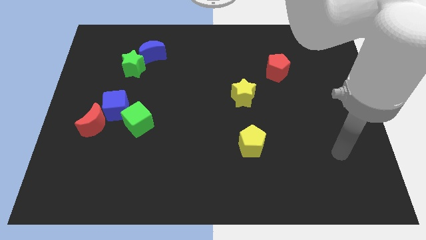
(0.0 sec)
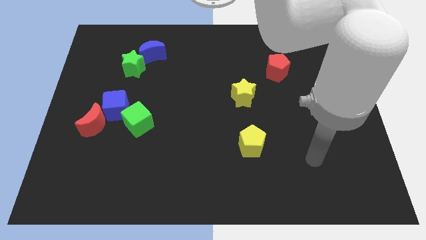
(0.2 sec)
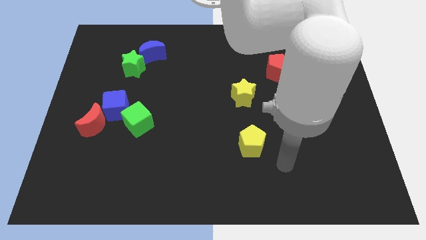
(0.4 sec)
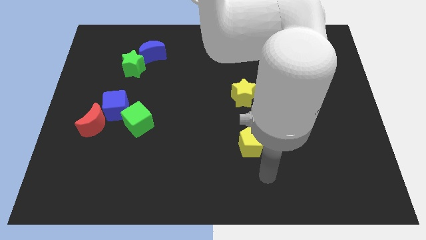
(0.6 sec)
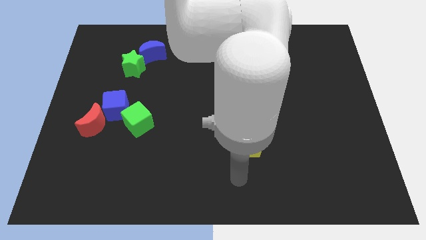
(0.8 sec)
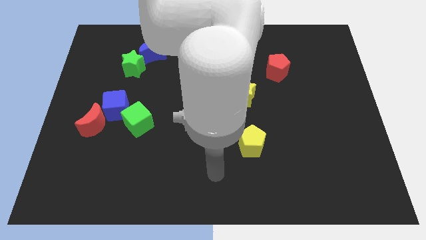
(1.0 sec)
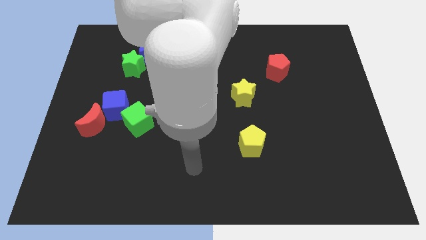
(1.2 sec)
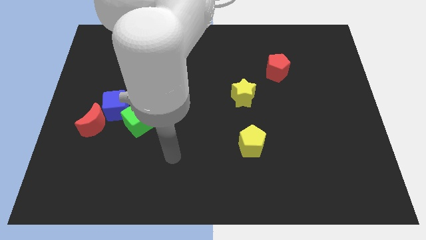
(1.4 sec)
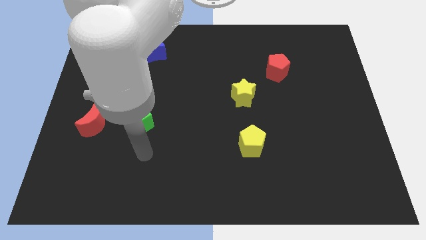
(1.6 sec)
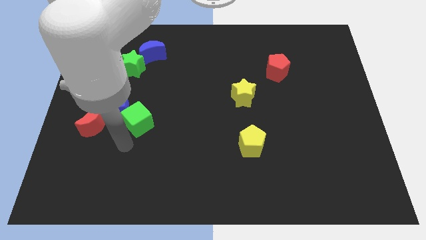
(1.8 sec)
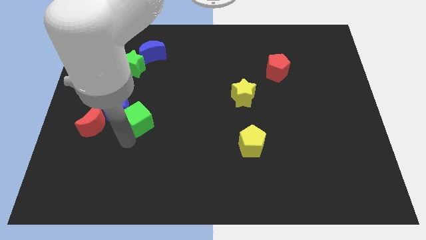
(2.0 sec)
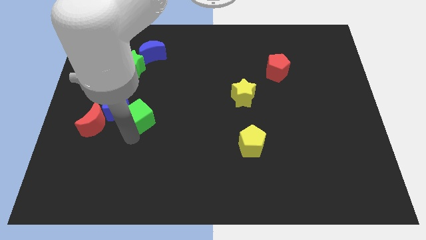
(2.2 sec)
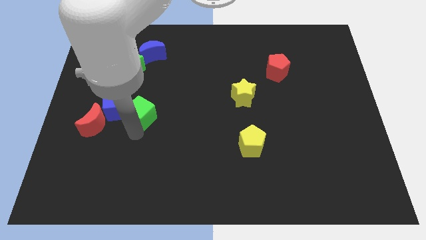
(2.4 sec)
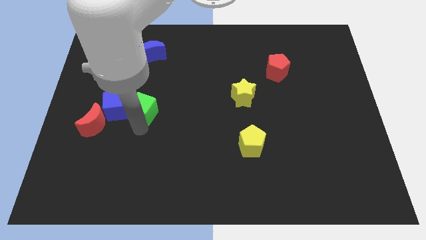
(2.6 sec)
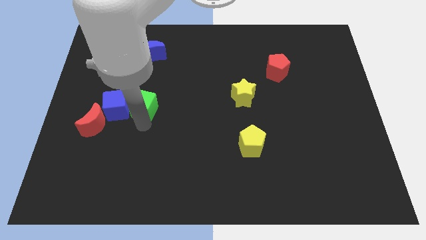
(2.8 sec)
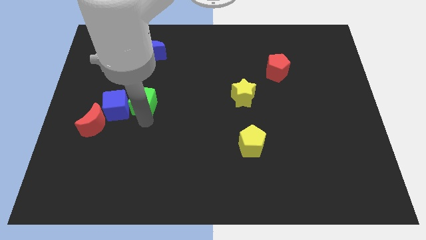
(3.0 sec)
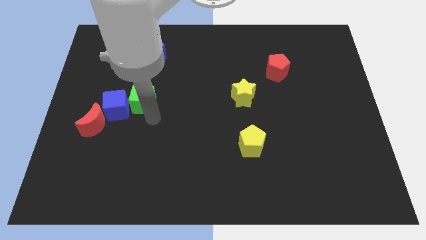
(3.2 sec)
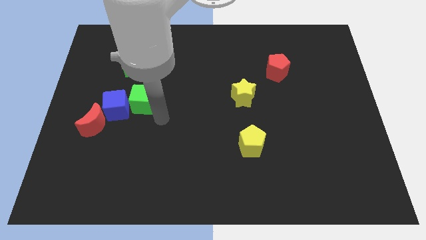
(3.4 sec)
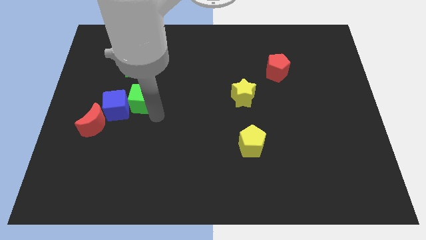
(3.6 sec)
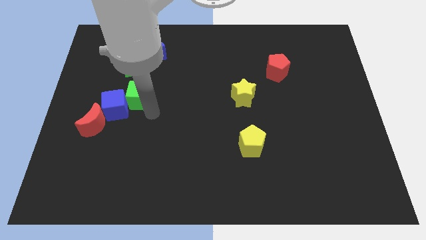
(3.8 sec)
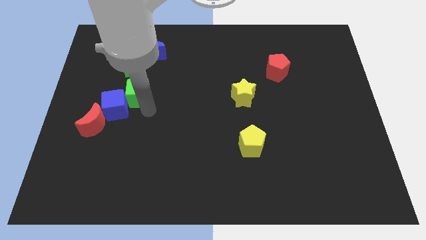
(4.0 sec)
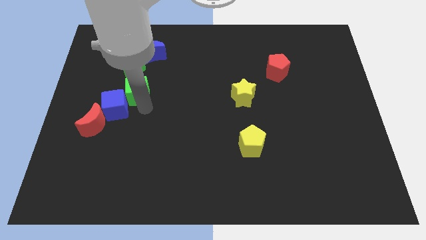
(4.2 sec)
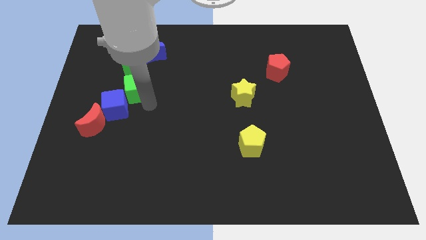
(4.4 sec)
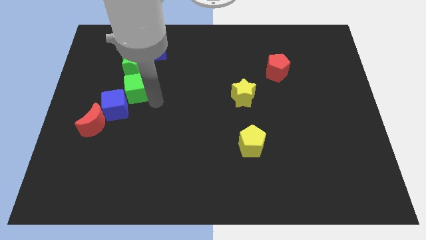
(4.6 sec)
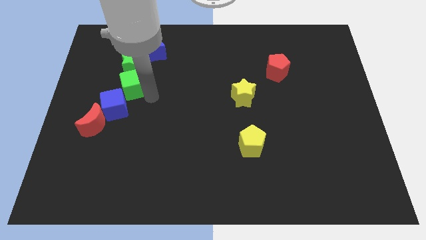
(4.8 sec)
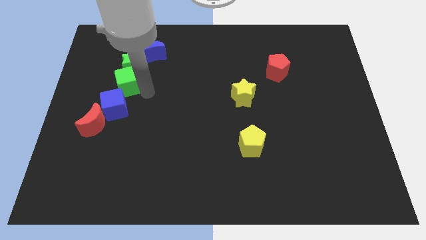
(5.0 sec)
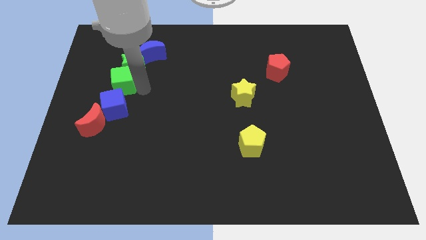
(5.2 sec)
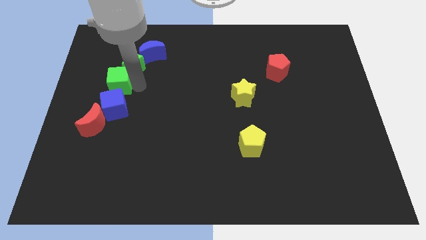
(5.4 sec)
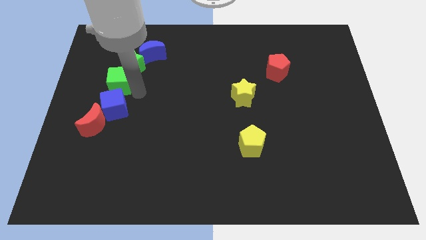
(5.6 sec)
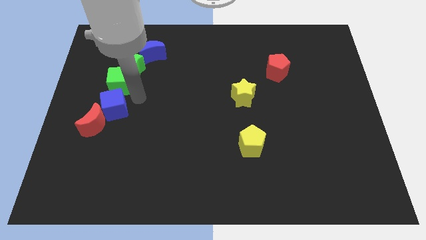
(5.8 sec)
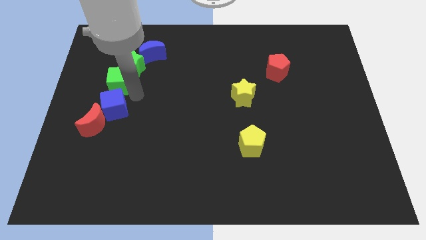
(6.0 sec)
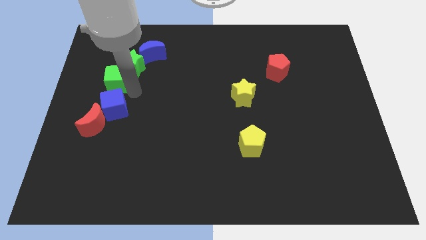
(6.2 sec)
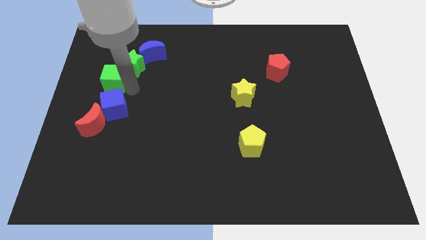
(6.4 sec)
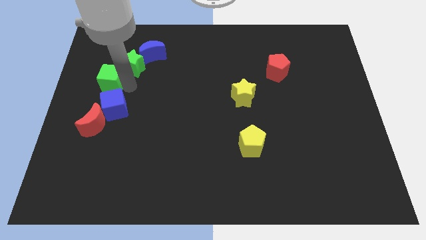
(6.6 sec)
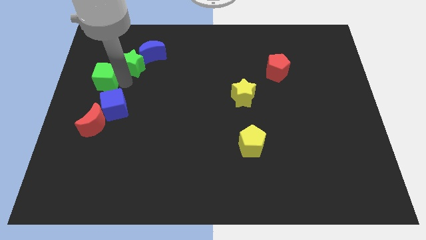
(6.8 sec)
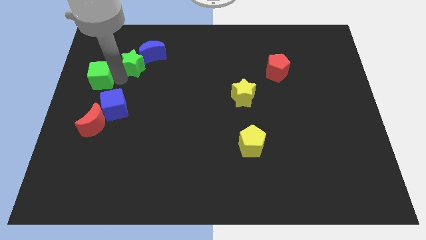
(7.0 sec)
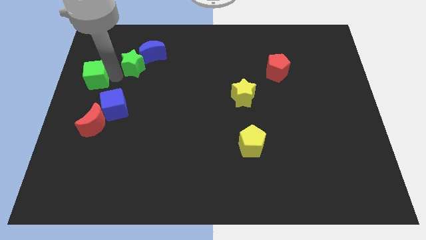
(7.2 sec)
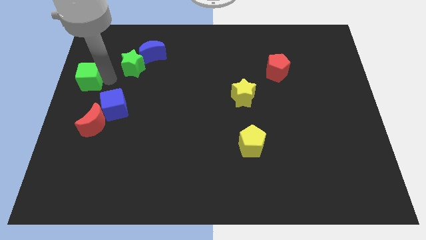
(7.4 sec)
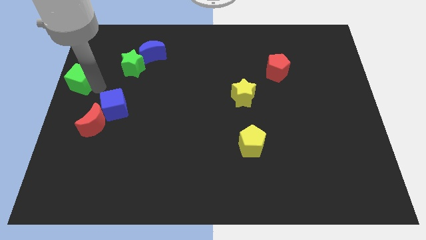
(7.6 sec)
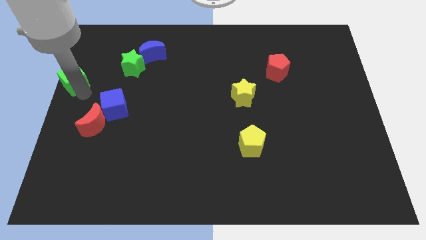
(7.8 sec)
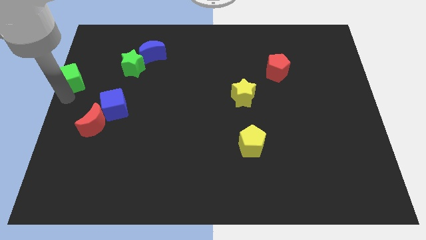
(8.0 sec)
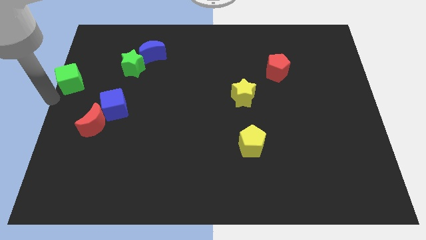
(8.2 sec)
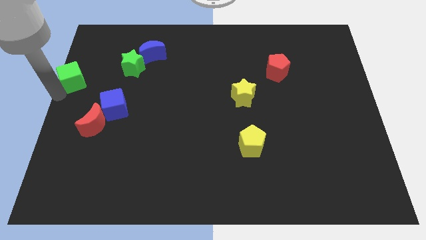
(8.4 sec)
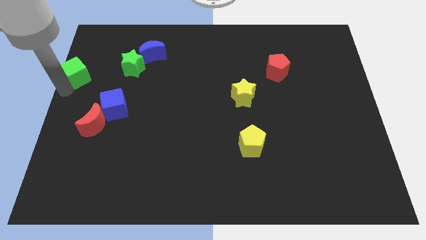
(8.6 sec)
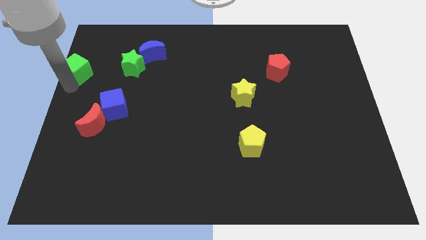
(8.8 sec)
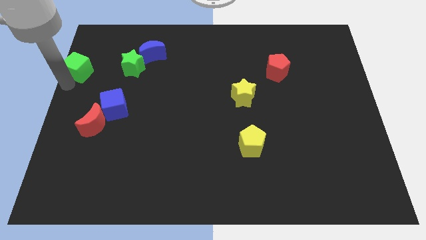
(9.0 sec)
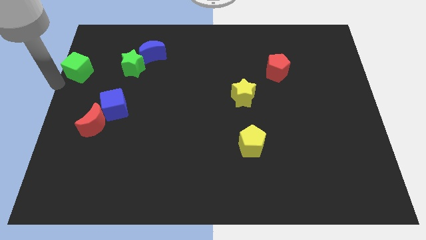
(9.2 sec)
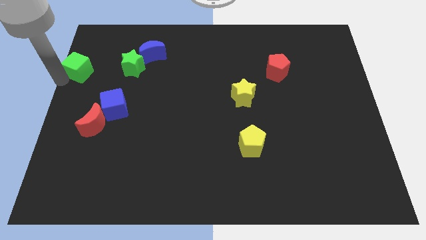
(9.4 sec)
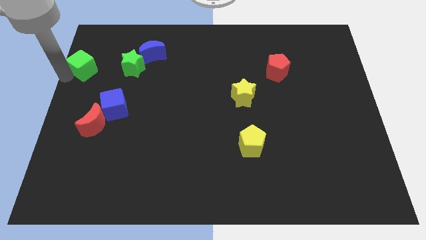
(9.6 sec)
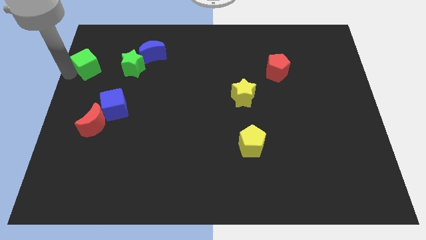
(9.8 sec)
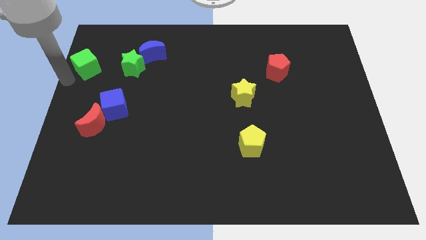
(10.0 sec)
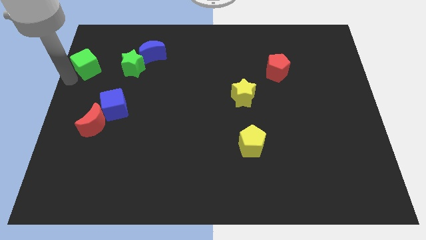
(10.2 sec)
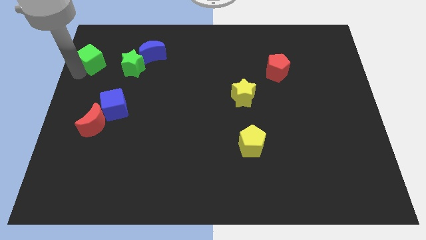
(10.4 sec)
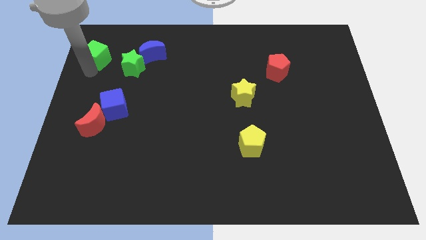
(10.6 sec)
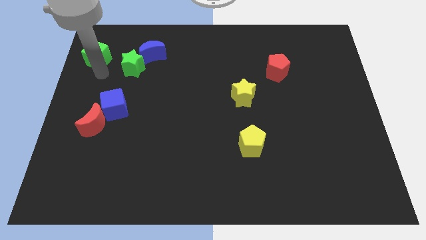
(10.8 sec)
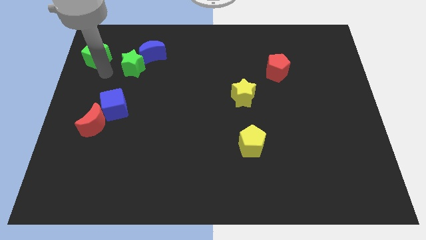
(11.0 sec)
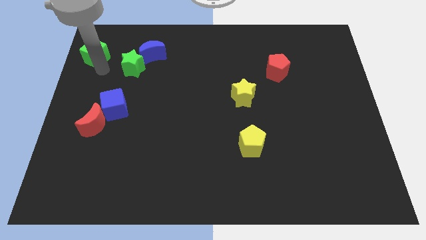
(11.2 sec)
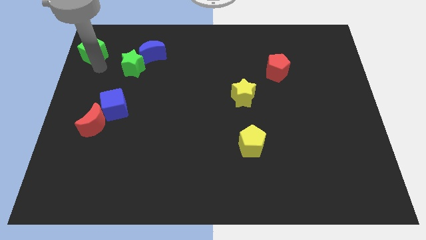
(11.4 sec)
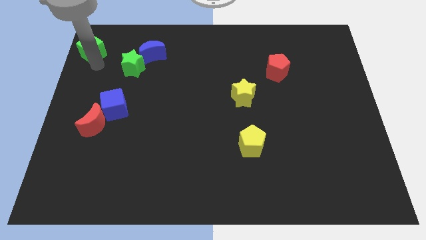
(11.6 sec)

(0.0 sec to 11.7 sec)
slide the green cube to the top left
